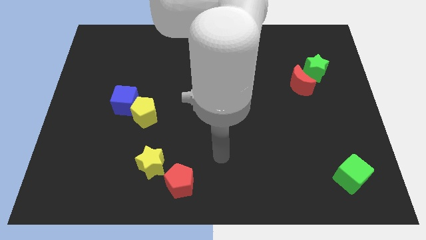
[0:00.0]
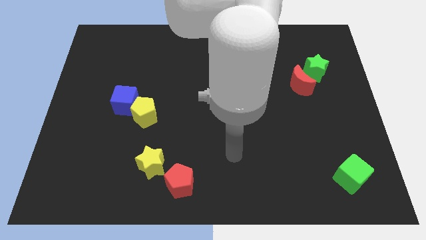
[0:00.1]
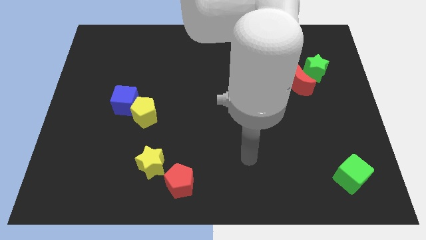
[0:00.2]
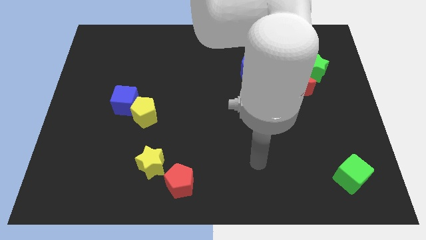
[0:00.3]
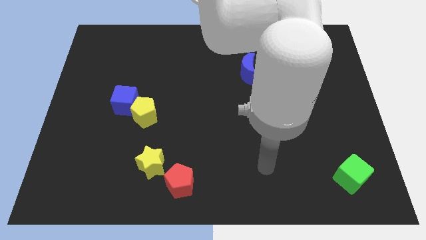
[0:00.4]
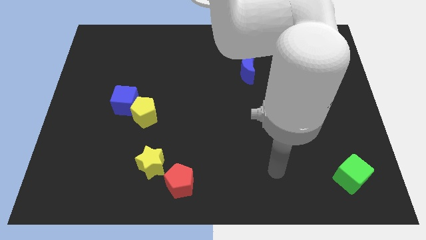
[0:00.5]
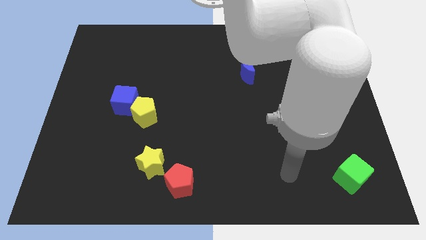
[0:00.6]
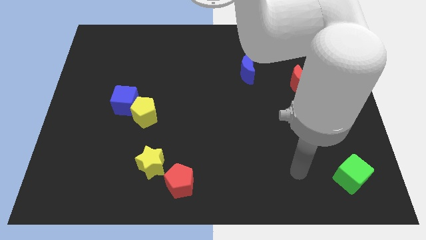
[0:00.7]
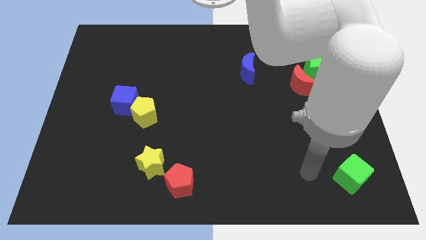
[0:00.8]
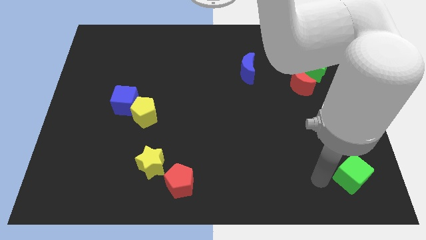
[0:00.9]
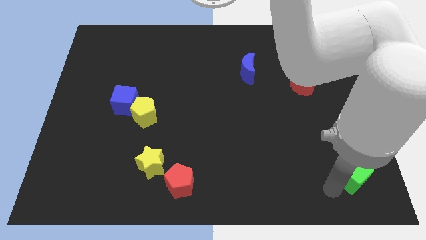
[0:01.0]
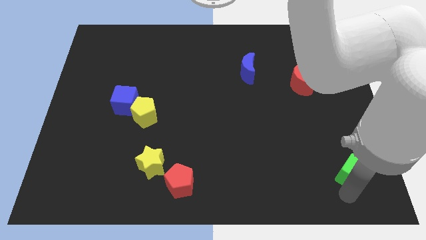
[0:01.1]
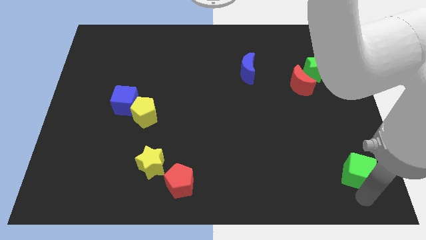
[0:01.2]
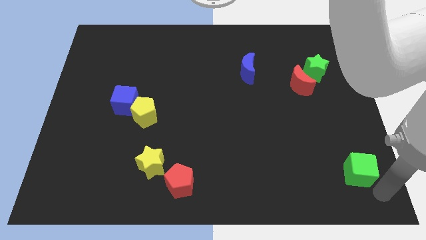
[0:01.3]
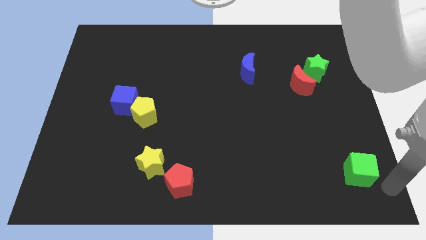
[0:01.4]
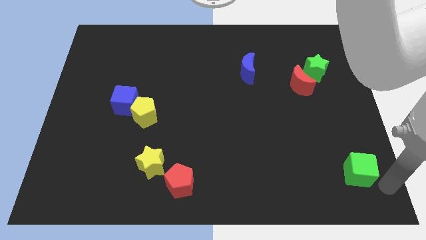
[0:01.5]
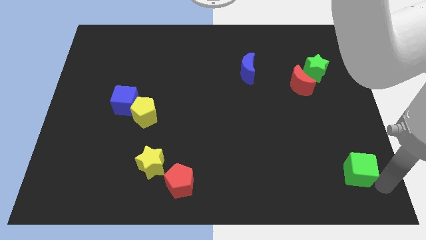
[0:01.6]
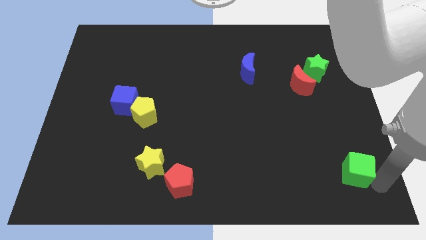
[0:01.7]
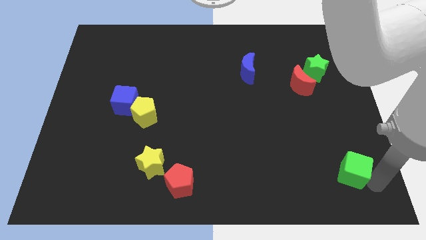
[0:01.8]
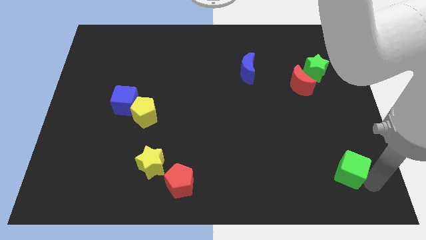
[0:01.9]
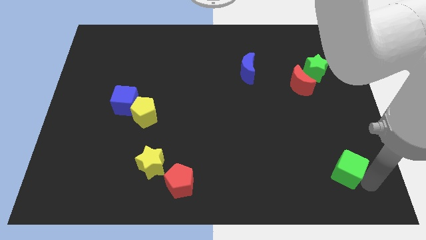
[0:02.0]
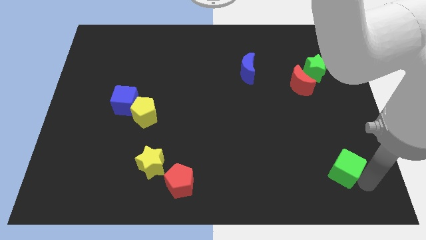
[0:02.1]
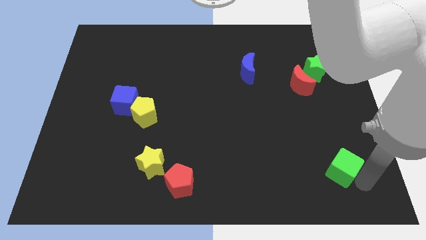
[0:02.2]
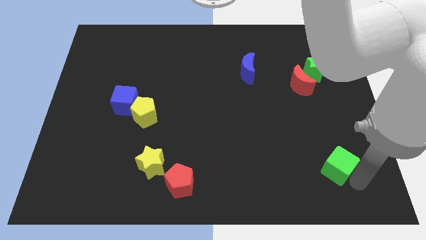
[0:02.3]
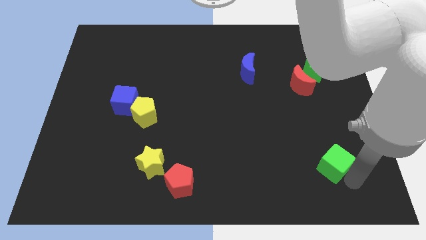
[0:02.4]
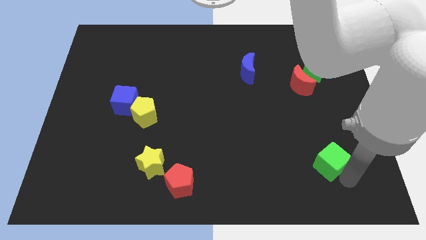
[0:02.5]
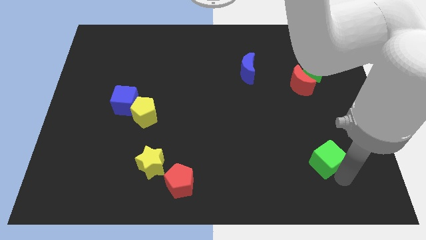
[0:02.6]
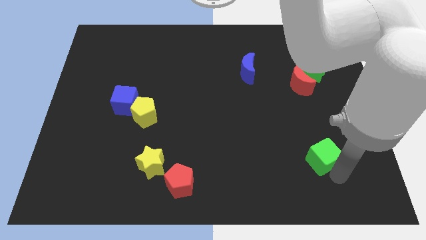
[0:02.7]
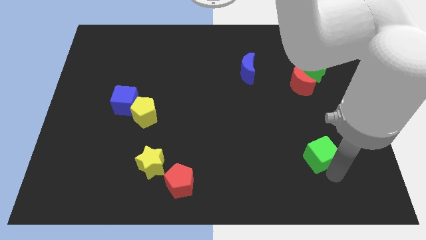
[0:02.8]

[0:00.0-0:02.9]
move the green cube a little diagonally upwards and to the left

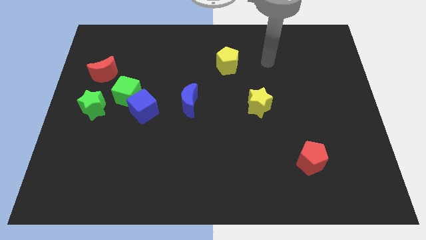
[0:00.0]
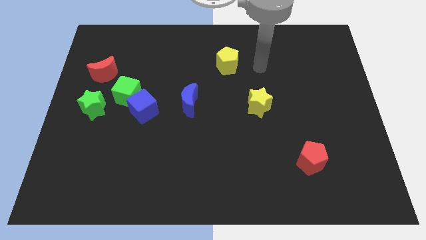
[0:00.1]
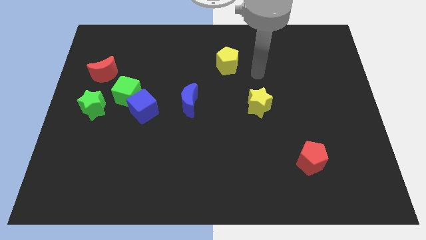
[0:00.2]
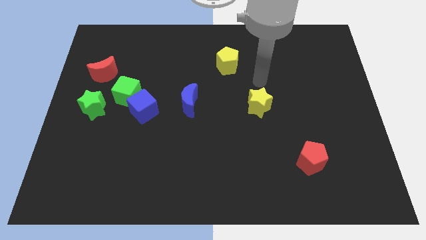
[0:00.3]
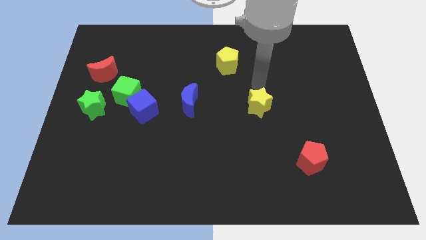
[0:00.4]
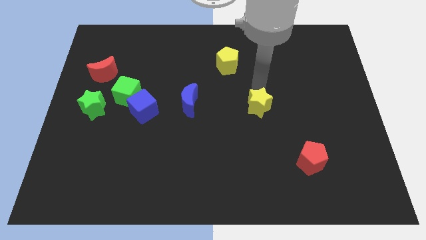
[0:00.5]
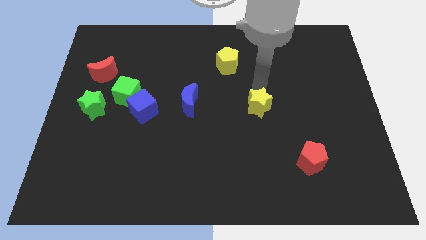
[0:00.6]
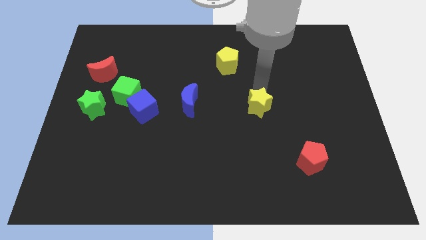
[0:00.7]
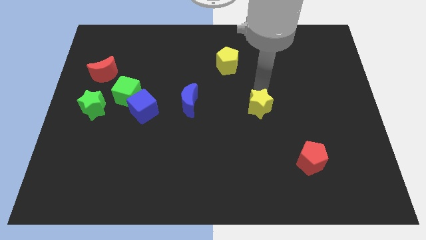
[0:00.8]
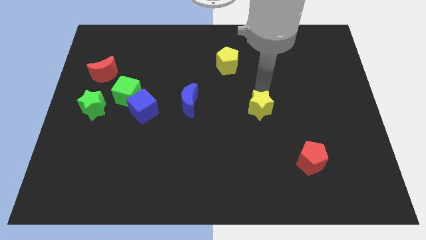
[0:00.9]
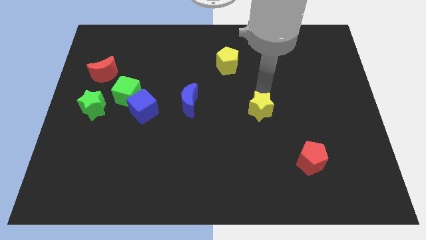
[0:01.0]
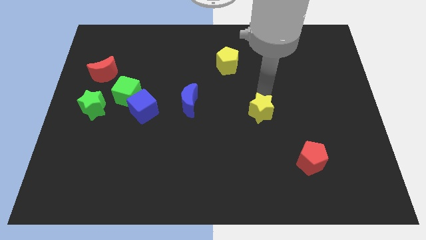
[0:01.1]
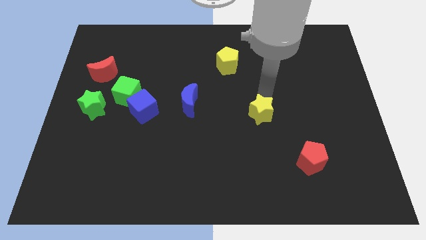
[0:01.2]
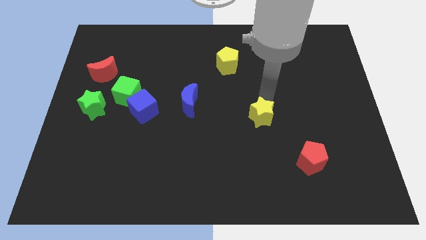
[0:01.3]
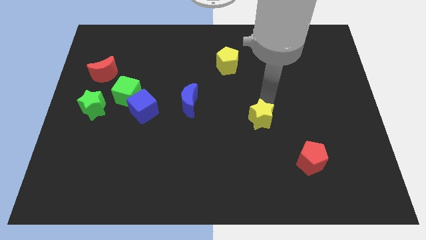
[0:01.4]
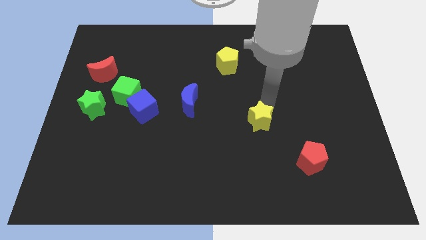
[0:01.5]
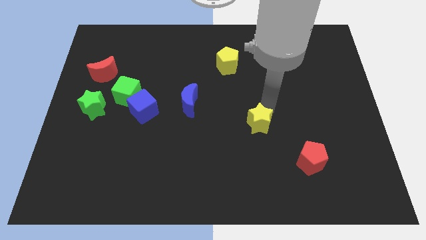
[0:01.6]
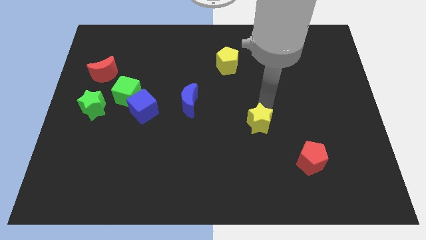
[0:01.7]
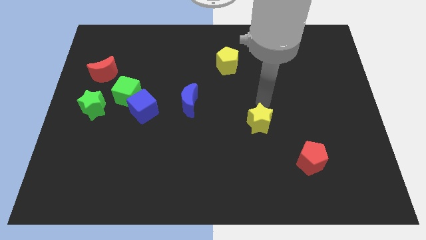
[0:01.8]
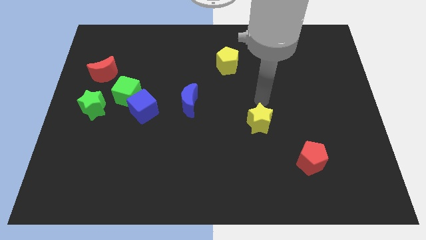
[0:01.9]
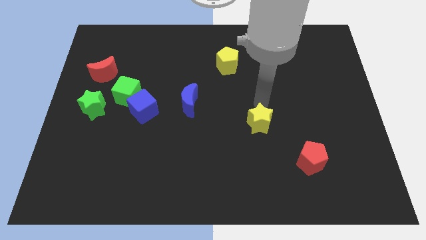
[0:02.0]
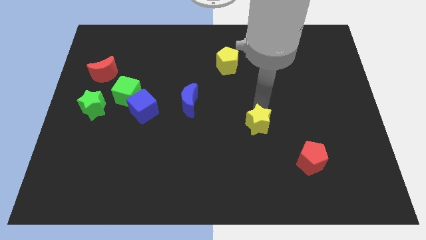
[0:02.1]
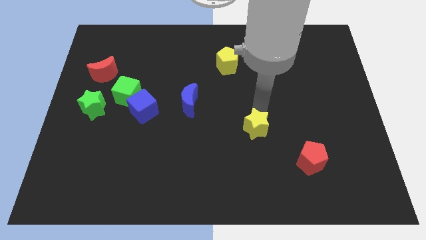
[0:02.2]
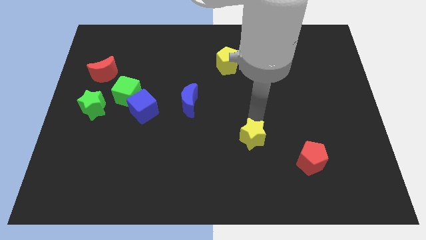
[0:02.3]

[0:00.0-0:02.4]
move the yellow star a little downwards

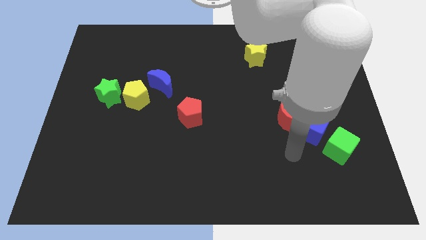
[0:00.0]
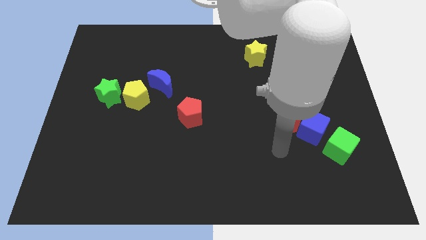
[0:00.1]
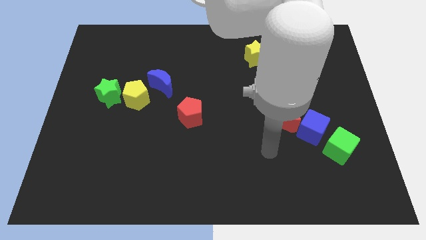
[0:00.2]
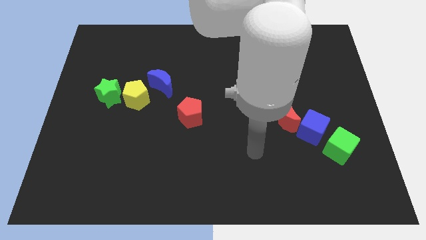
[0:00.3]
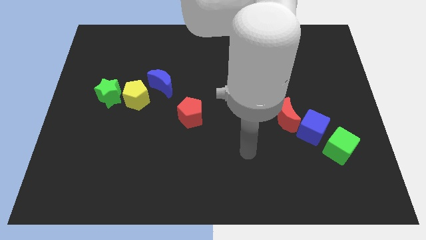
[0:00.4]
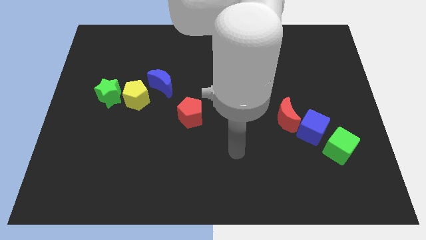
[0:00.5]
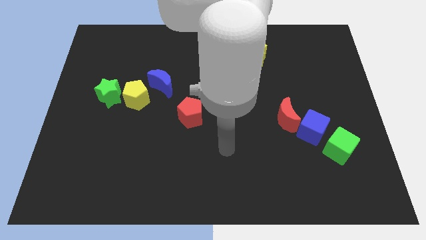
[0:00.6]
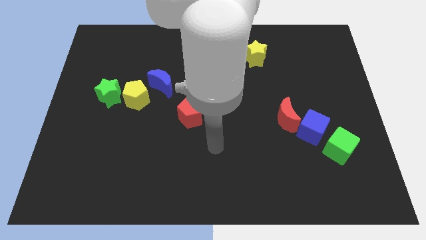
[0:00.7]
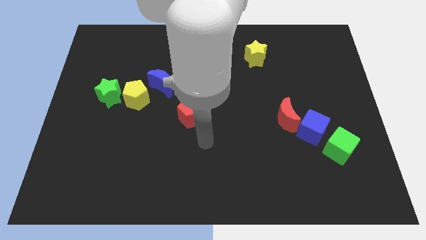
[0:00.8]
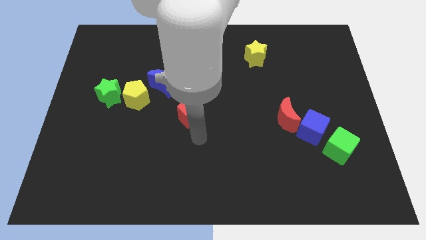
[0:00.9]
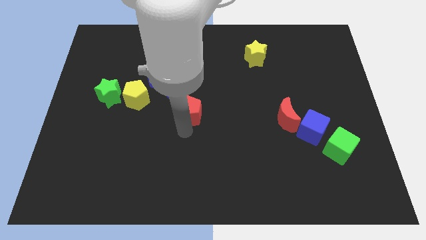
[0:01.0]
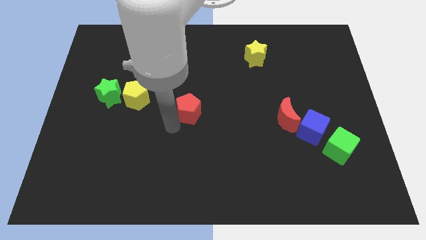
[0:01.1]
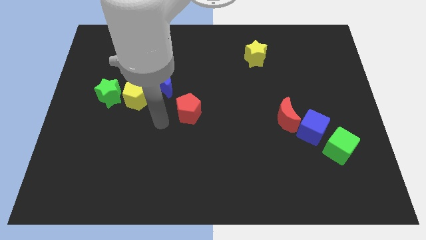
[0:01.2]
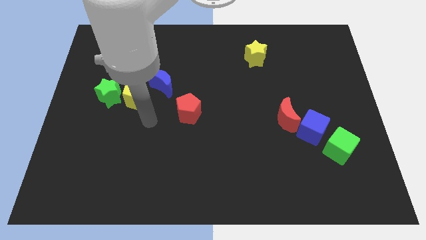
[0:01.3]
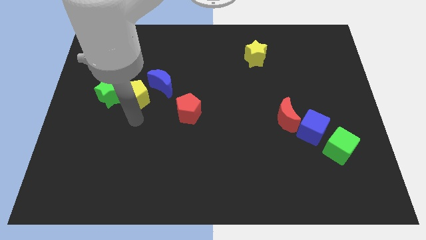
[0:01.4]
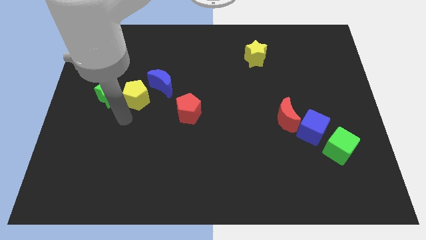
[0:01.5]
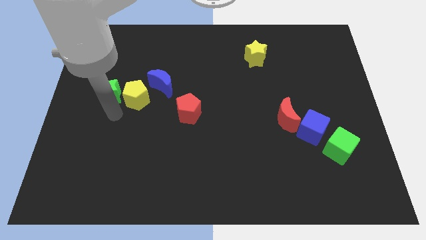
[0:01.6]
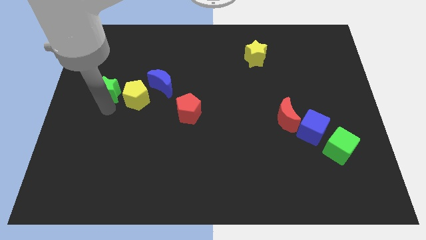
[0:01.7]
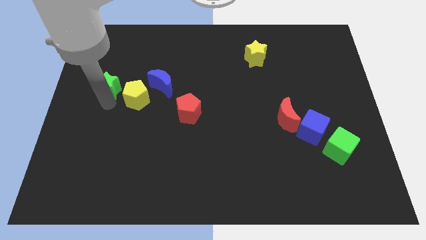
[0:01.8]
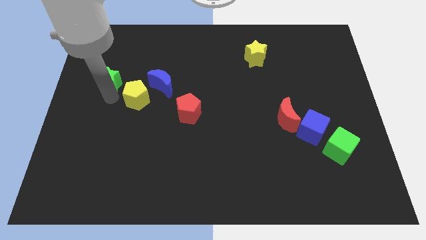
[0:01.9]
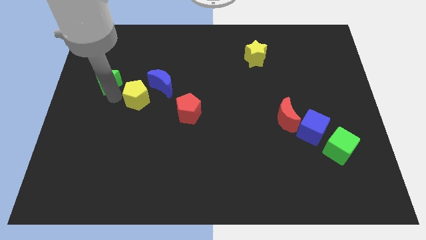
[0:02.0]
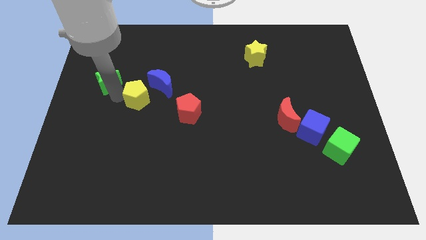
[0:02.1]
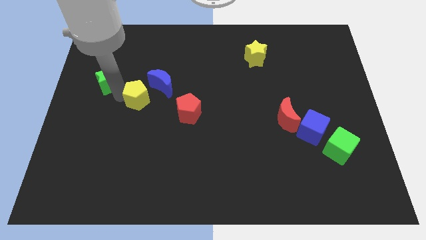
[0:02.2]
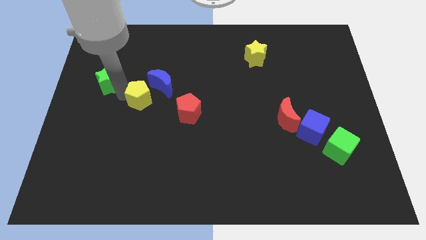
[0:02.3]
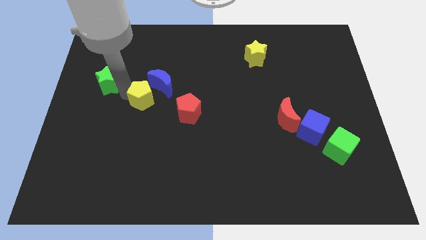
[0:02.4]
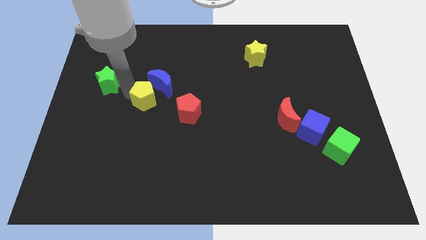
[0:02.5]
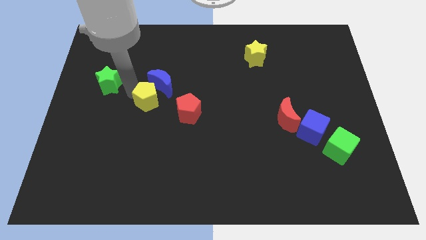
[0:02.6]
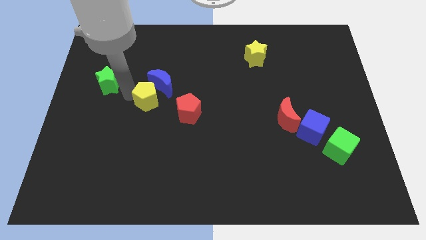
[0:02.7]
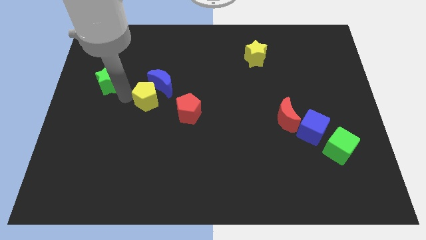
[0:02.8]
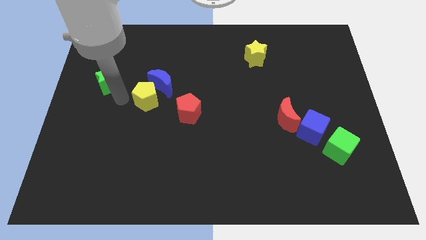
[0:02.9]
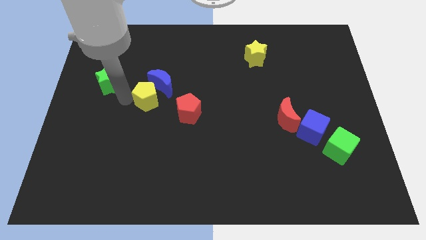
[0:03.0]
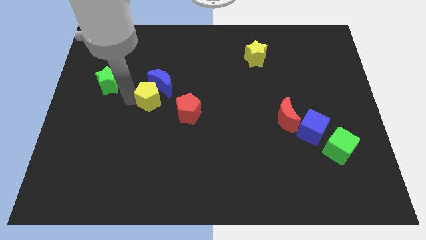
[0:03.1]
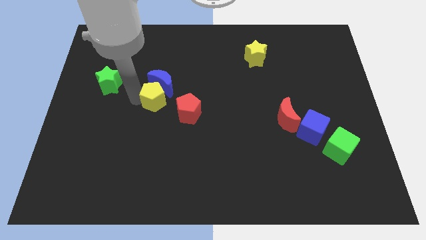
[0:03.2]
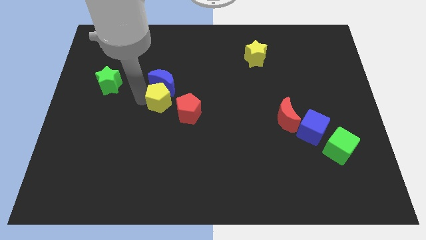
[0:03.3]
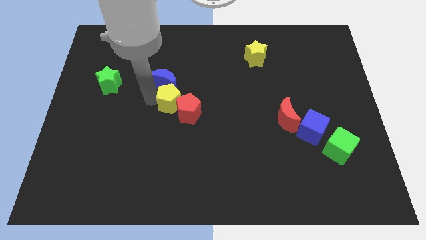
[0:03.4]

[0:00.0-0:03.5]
push the yellow pentagon right a little bit
